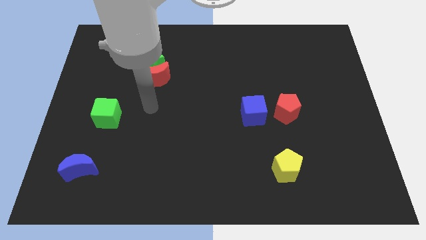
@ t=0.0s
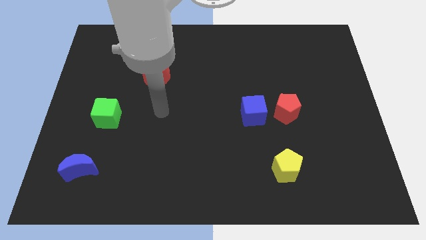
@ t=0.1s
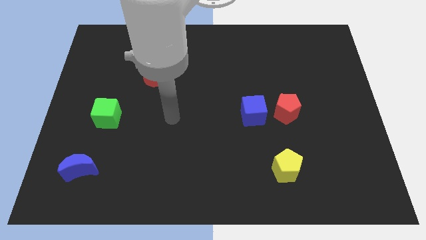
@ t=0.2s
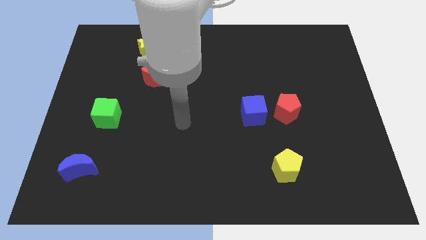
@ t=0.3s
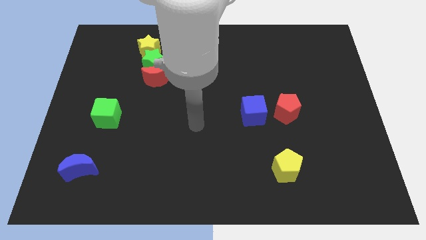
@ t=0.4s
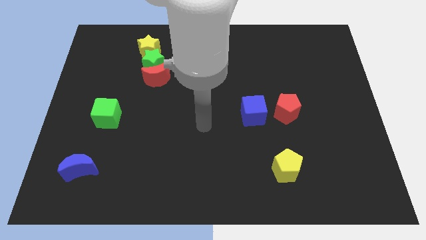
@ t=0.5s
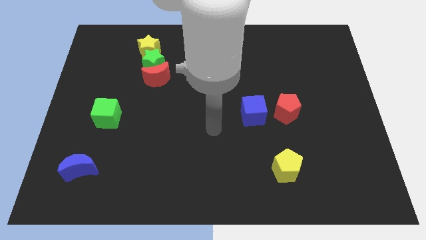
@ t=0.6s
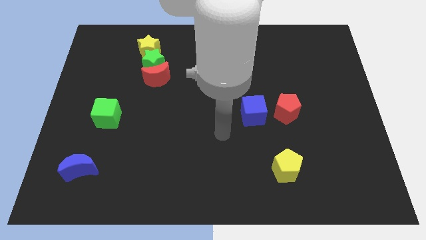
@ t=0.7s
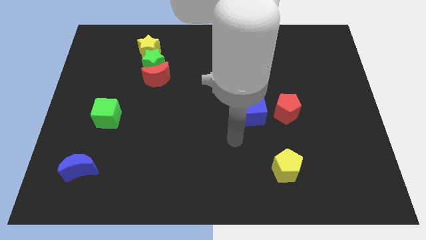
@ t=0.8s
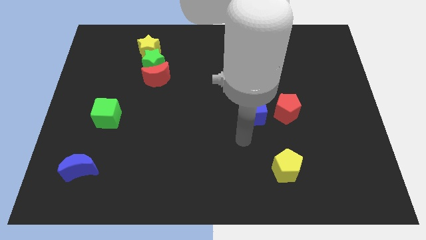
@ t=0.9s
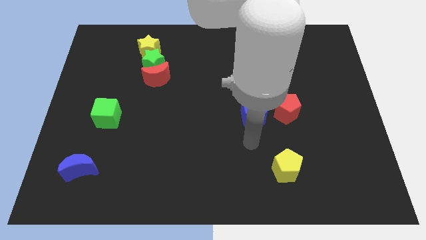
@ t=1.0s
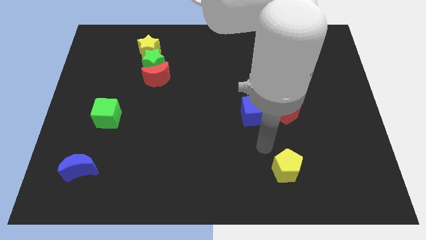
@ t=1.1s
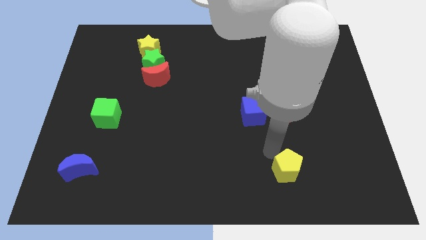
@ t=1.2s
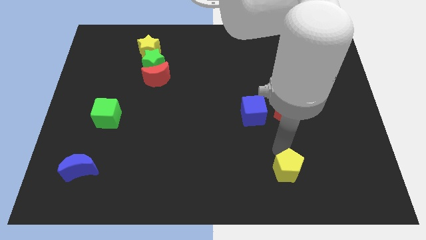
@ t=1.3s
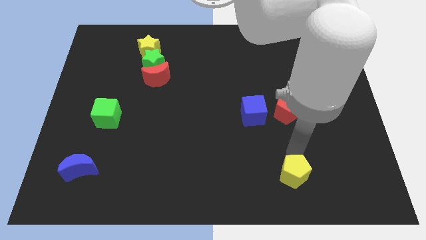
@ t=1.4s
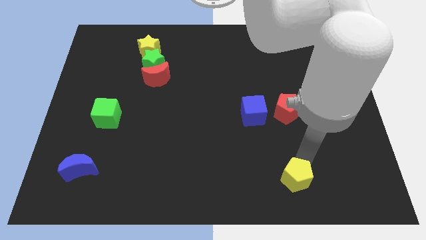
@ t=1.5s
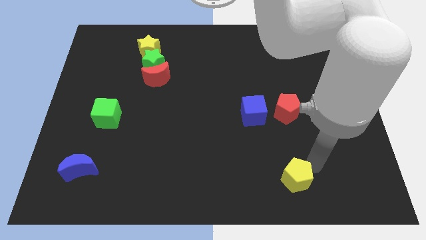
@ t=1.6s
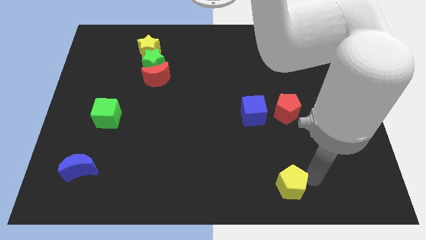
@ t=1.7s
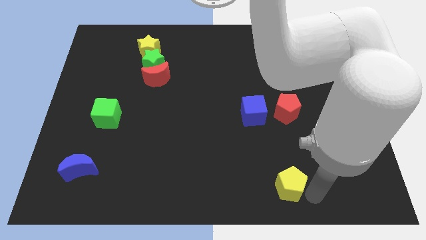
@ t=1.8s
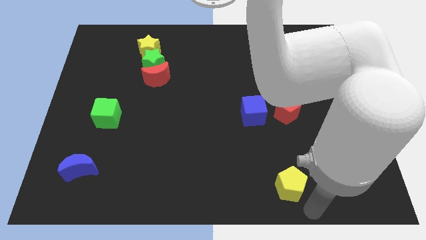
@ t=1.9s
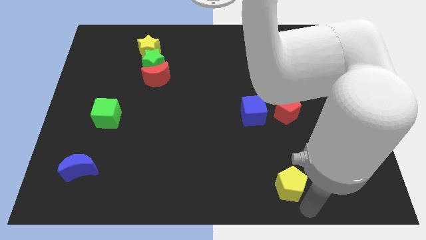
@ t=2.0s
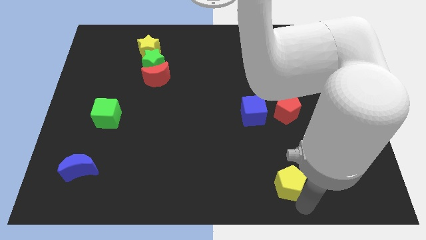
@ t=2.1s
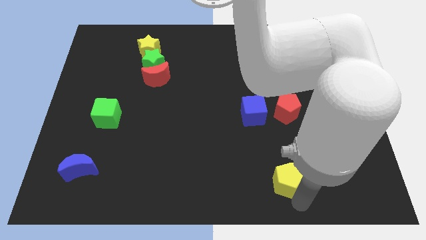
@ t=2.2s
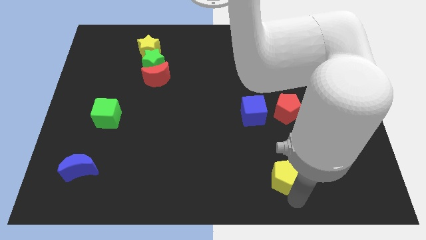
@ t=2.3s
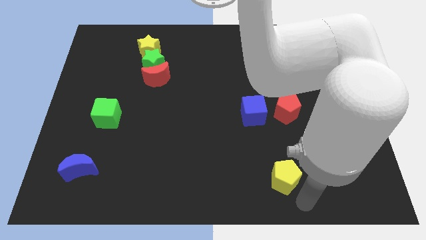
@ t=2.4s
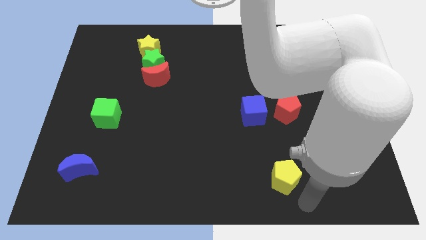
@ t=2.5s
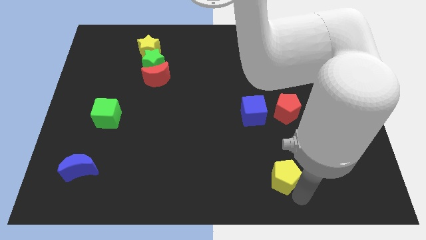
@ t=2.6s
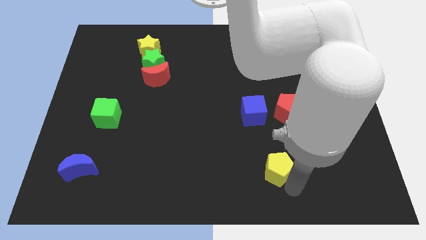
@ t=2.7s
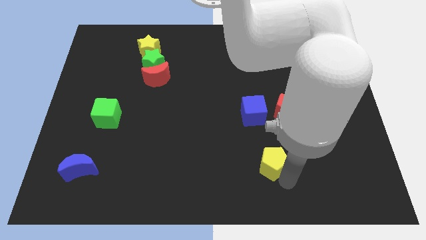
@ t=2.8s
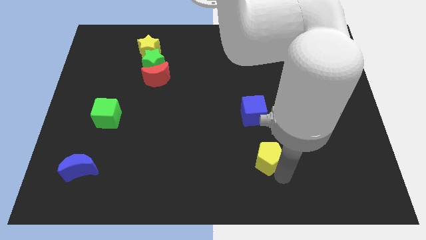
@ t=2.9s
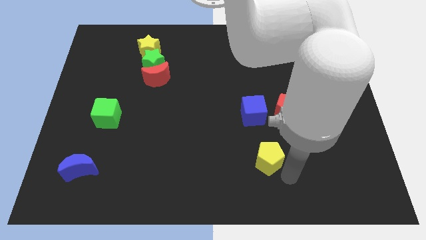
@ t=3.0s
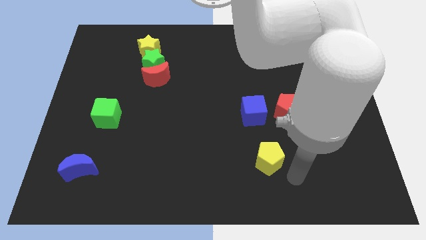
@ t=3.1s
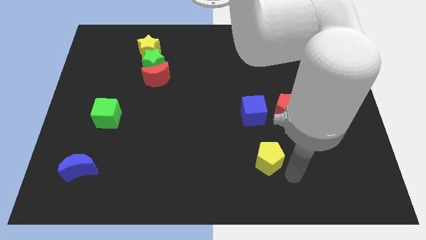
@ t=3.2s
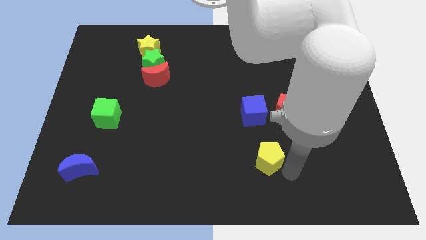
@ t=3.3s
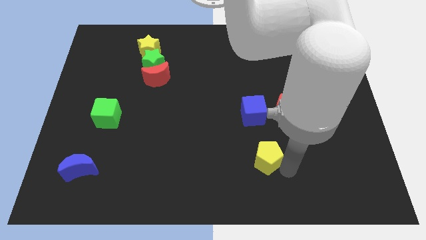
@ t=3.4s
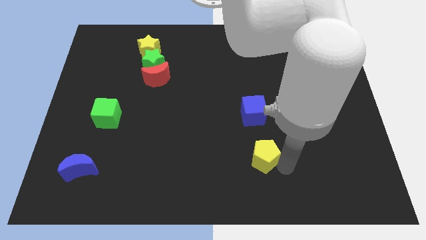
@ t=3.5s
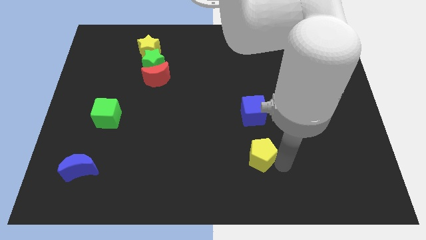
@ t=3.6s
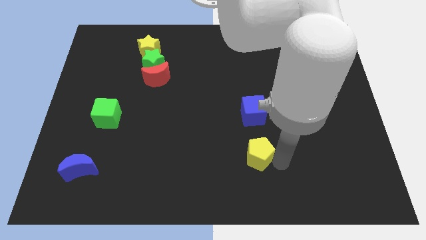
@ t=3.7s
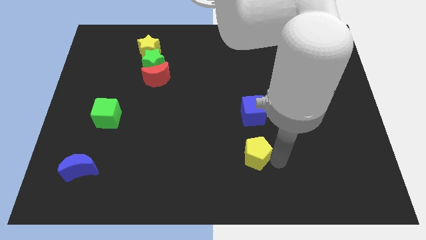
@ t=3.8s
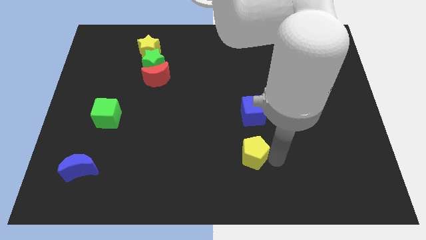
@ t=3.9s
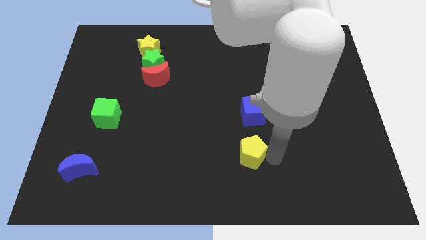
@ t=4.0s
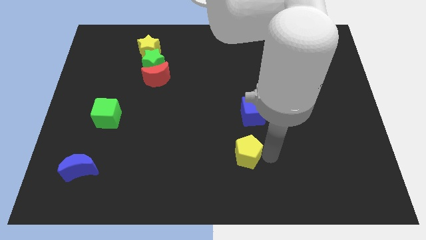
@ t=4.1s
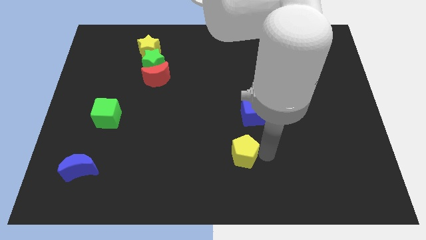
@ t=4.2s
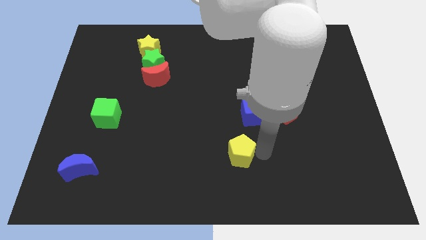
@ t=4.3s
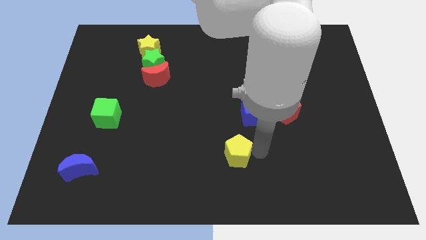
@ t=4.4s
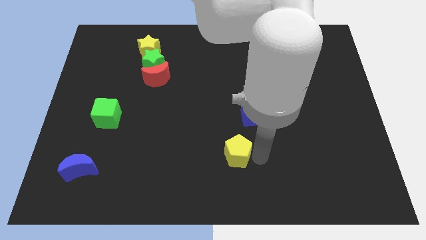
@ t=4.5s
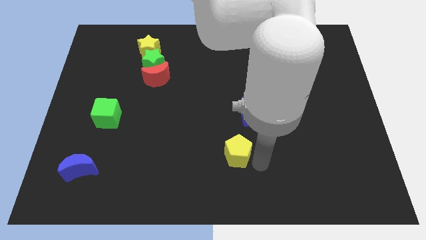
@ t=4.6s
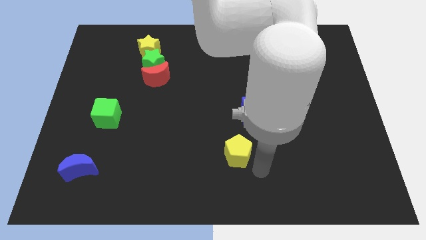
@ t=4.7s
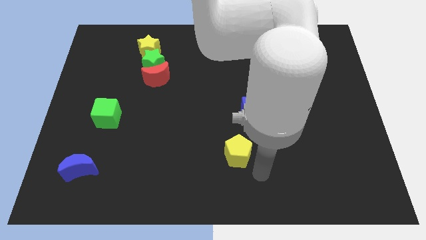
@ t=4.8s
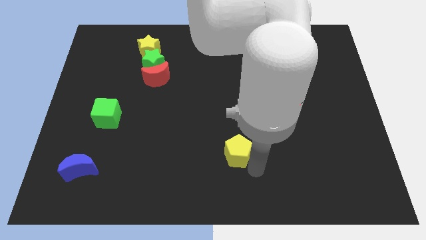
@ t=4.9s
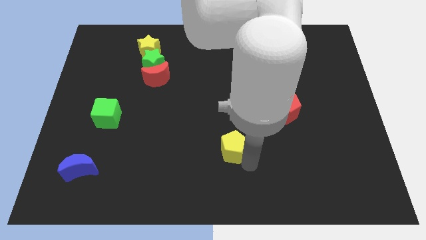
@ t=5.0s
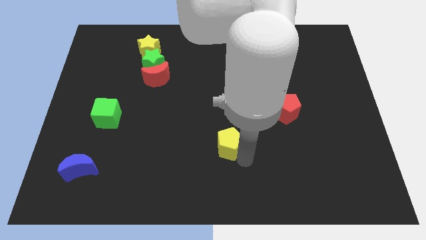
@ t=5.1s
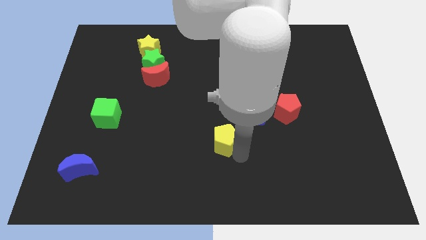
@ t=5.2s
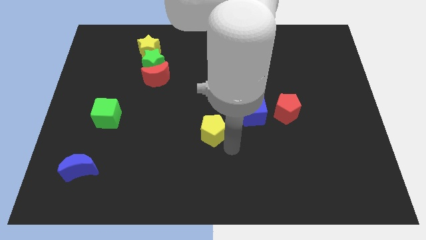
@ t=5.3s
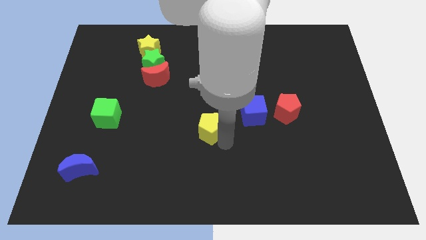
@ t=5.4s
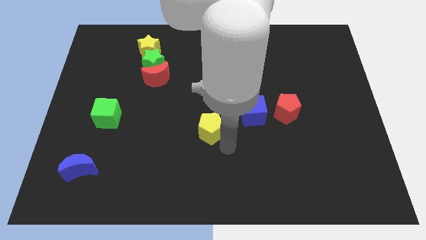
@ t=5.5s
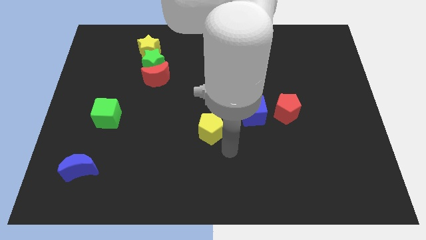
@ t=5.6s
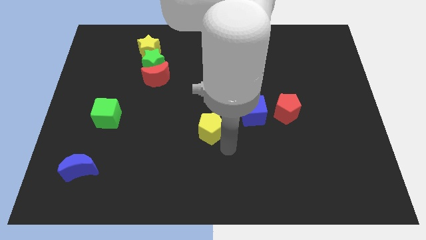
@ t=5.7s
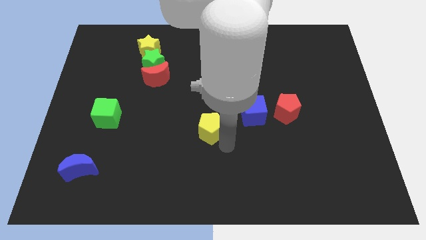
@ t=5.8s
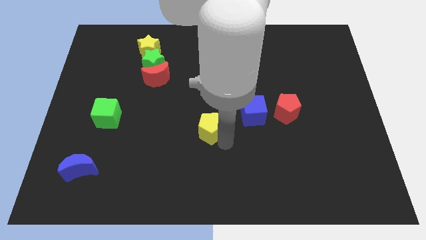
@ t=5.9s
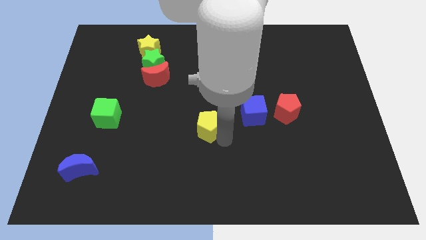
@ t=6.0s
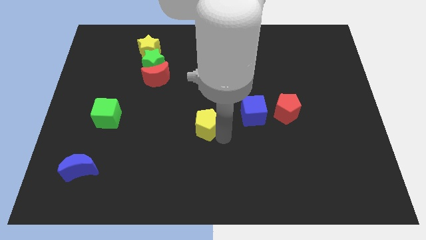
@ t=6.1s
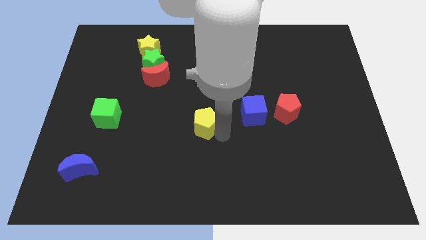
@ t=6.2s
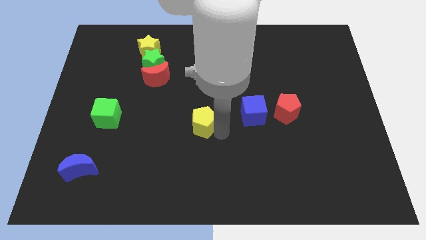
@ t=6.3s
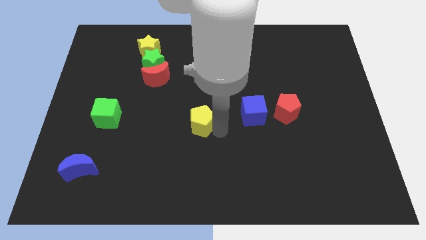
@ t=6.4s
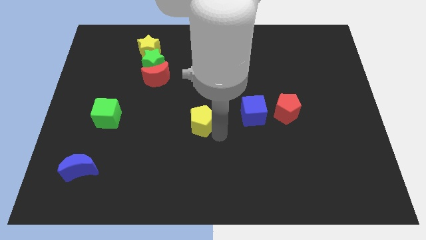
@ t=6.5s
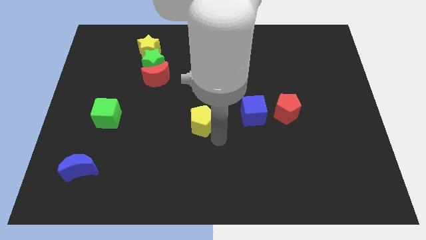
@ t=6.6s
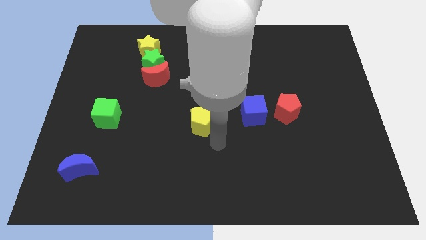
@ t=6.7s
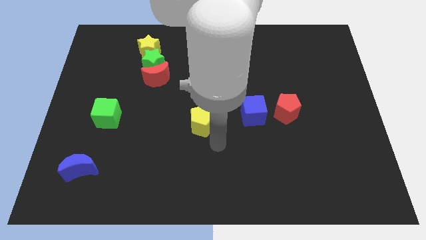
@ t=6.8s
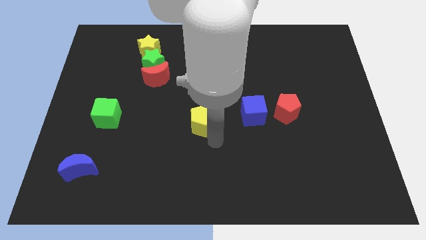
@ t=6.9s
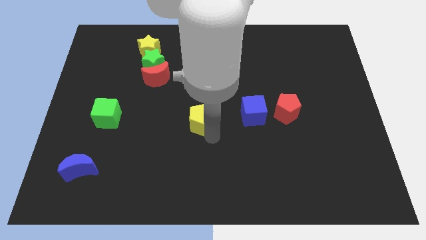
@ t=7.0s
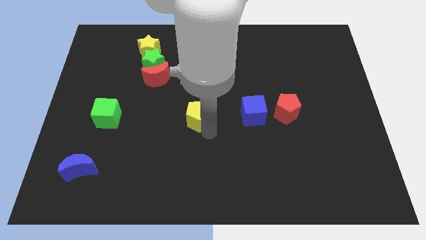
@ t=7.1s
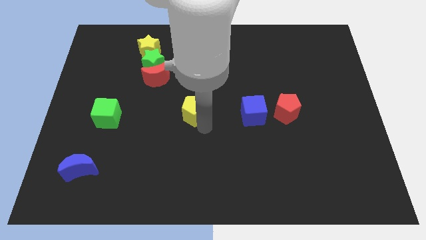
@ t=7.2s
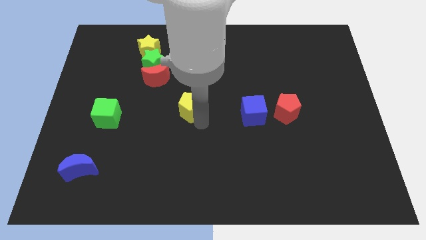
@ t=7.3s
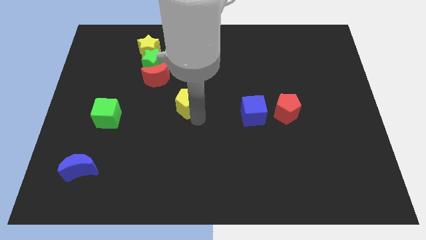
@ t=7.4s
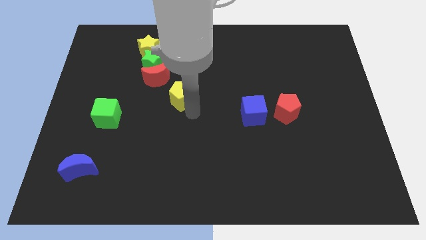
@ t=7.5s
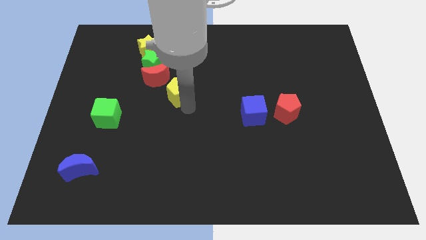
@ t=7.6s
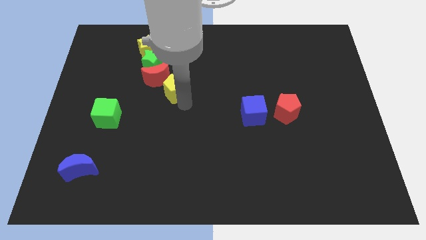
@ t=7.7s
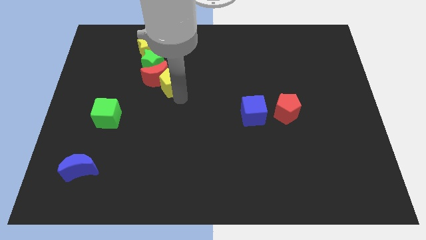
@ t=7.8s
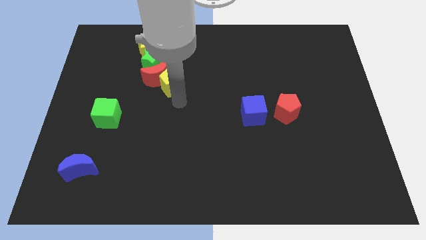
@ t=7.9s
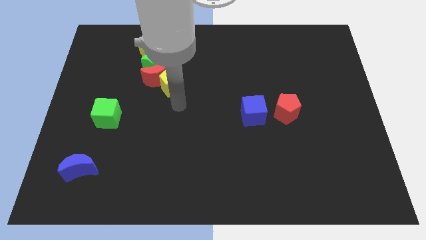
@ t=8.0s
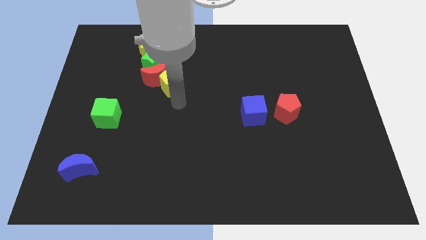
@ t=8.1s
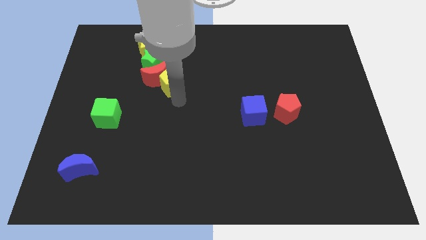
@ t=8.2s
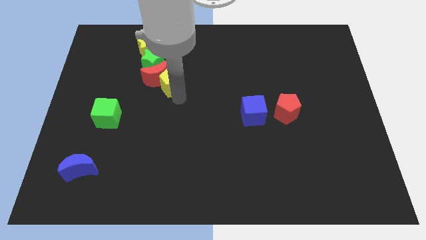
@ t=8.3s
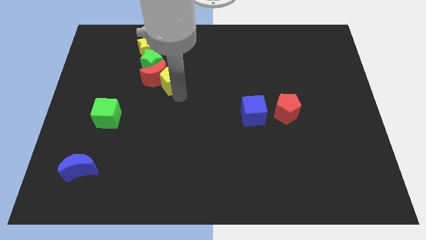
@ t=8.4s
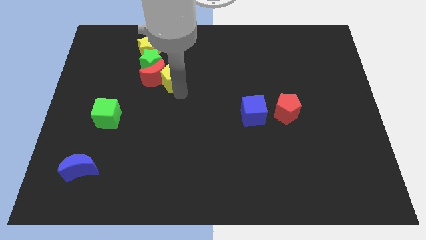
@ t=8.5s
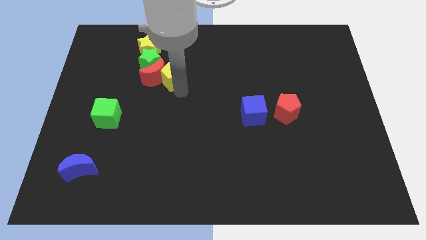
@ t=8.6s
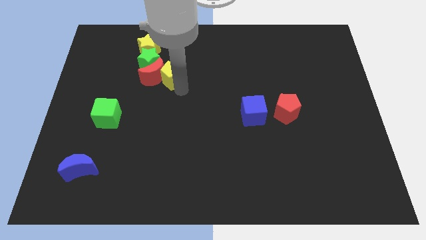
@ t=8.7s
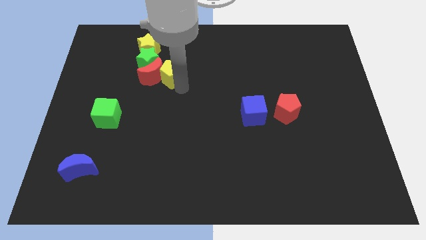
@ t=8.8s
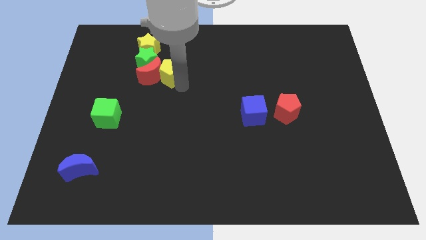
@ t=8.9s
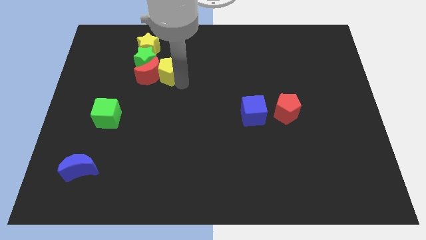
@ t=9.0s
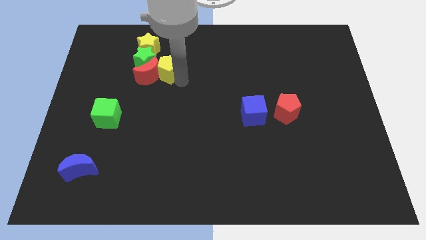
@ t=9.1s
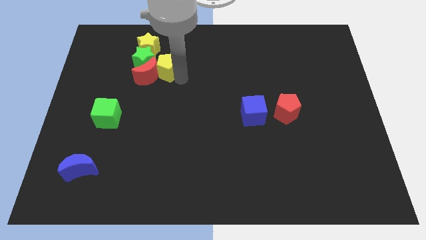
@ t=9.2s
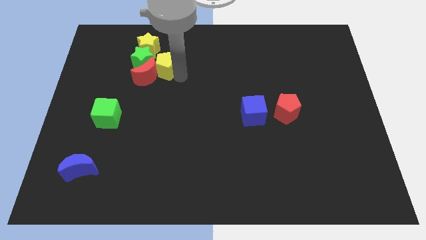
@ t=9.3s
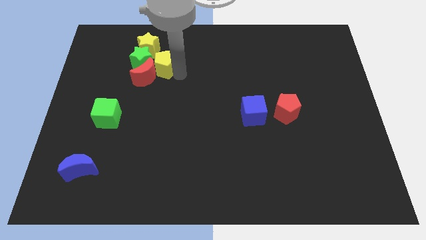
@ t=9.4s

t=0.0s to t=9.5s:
slide the yellow pentagon towards the green star
